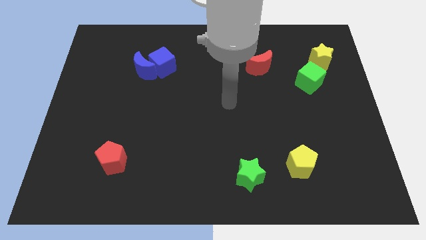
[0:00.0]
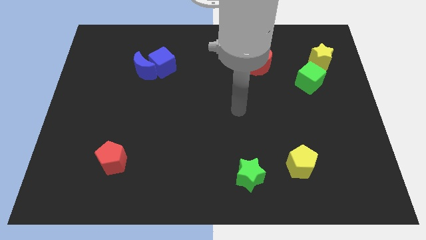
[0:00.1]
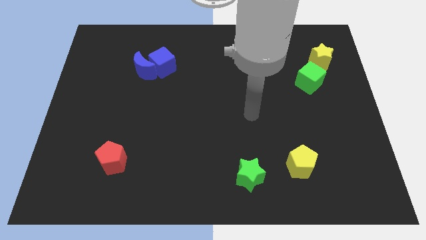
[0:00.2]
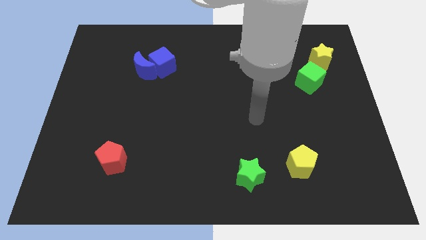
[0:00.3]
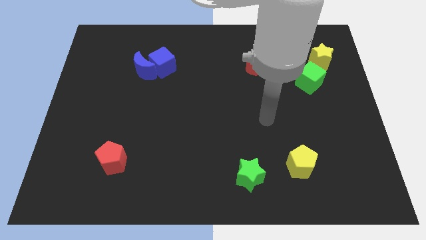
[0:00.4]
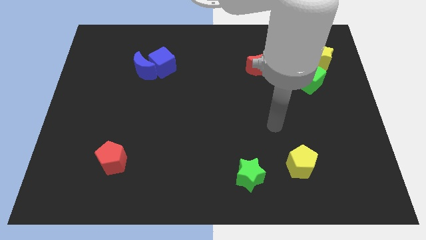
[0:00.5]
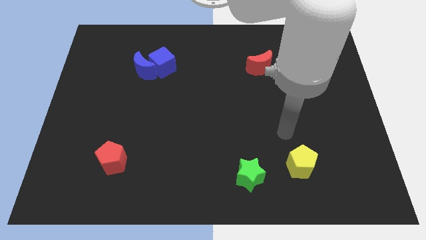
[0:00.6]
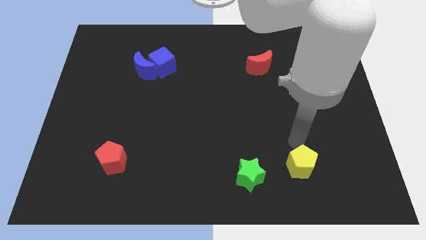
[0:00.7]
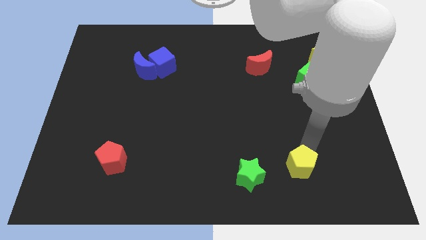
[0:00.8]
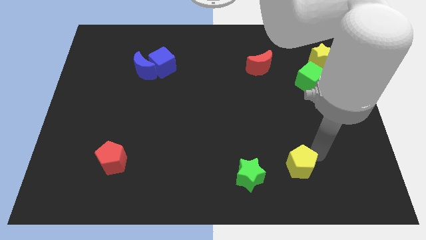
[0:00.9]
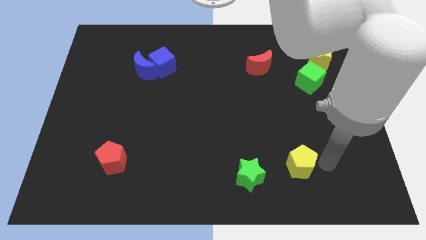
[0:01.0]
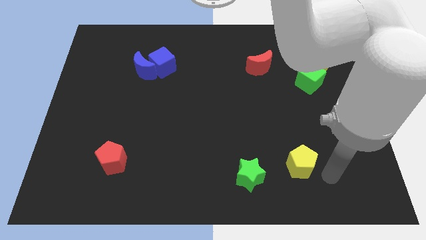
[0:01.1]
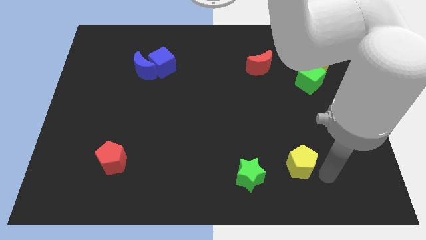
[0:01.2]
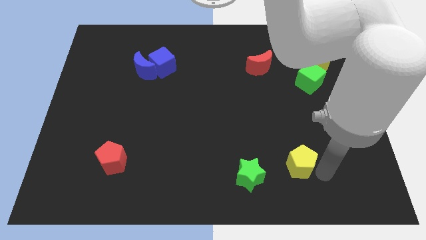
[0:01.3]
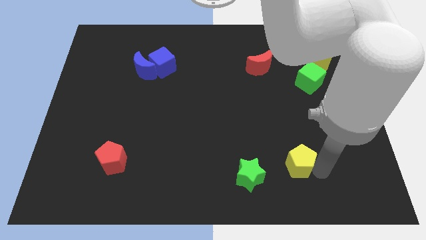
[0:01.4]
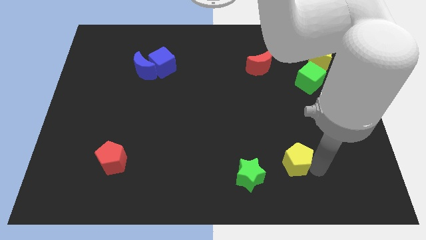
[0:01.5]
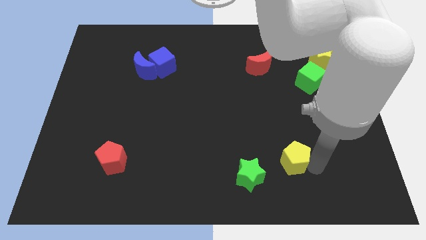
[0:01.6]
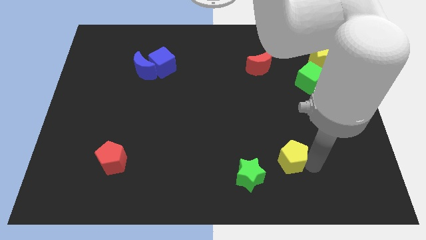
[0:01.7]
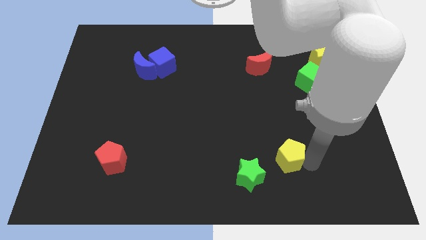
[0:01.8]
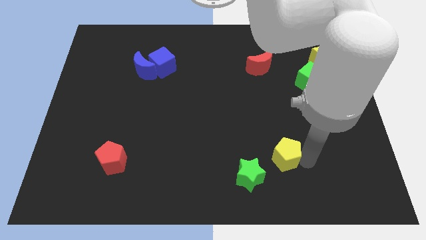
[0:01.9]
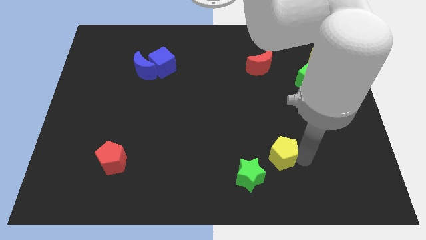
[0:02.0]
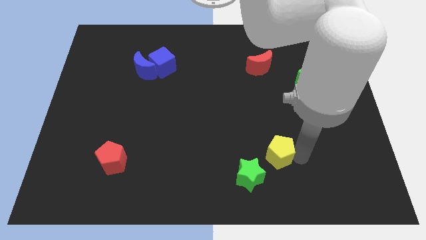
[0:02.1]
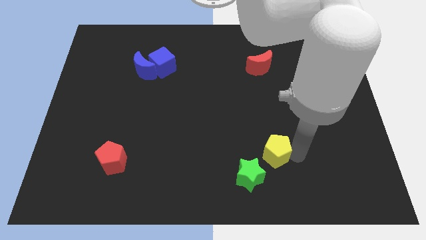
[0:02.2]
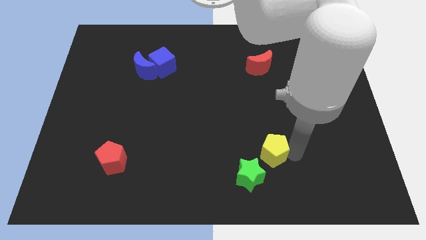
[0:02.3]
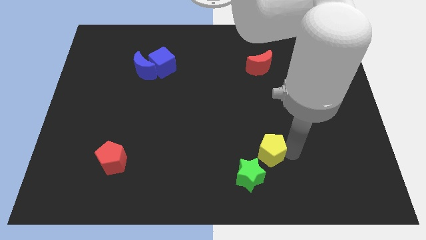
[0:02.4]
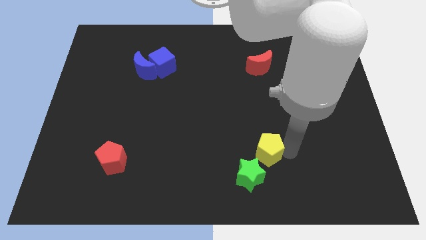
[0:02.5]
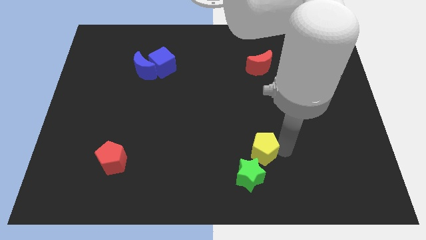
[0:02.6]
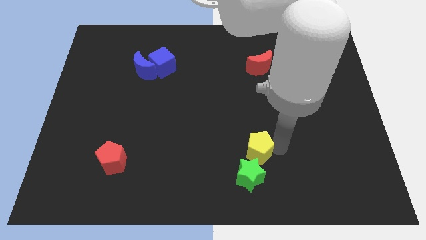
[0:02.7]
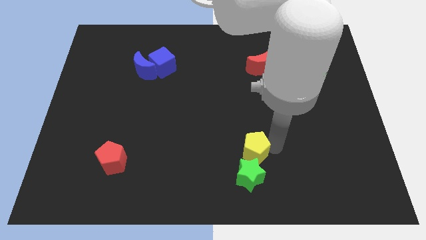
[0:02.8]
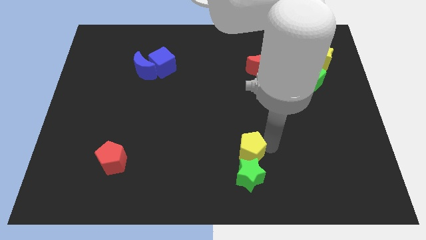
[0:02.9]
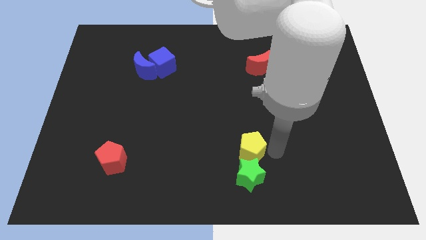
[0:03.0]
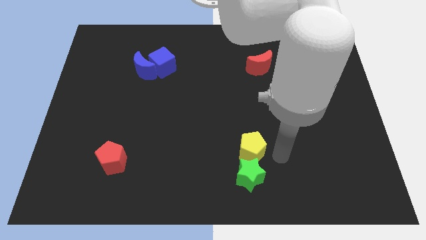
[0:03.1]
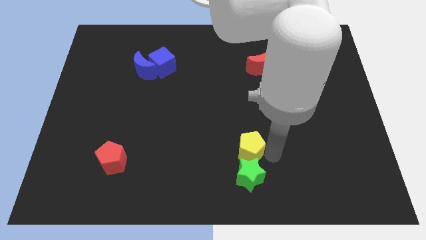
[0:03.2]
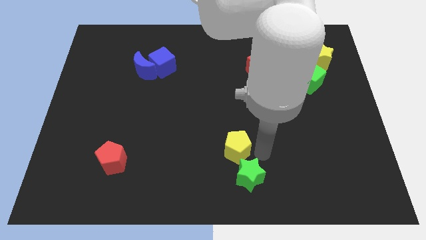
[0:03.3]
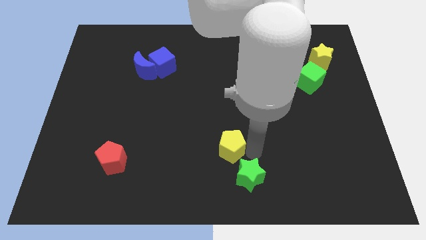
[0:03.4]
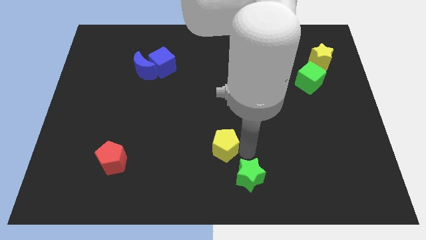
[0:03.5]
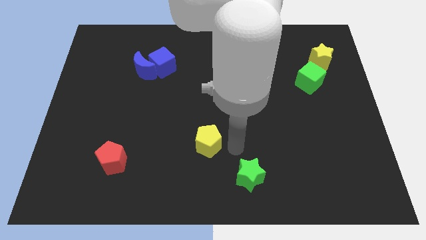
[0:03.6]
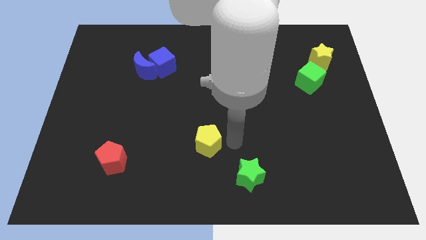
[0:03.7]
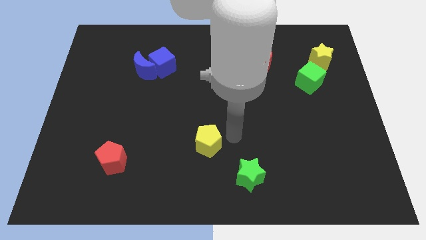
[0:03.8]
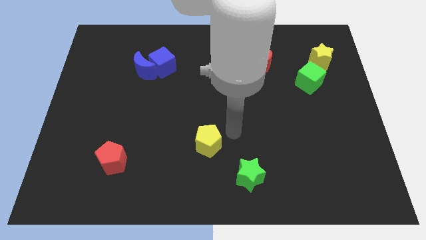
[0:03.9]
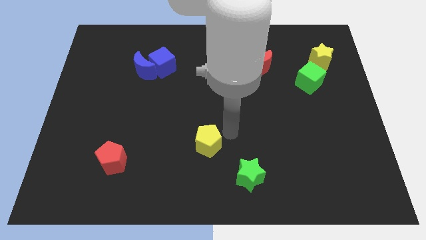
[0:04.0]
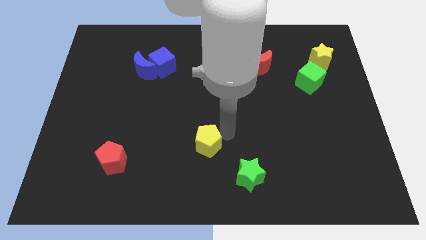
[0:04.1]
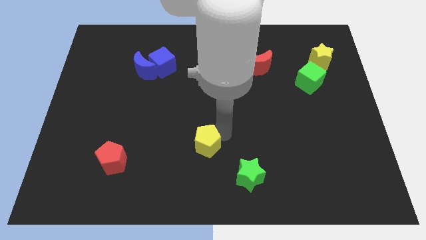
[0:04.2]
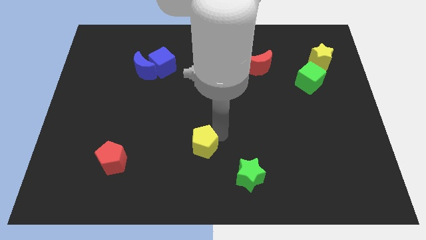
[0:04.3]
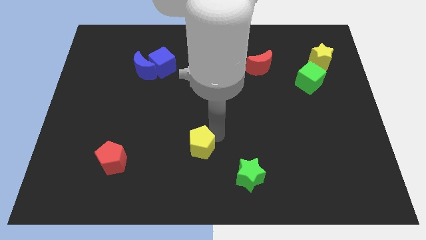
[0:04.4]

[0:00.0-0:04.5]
move the yellow pentagon left

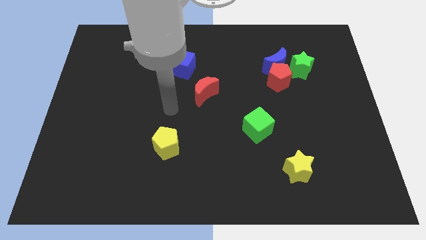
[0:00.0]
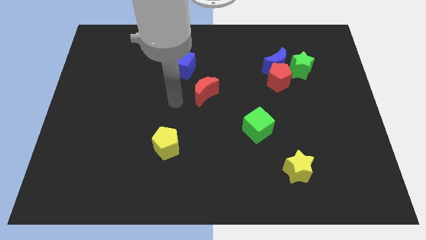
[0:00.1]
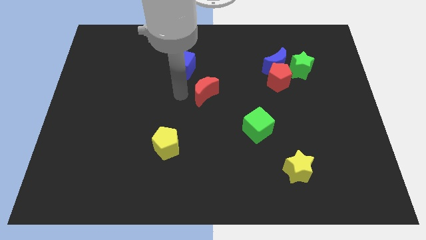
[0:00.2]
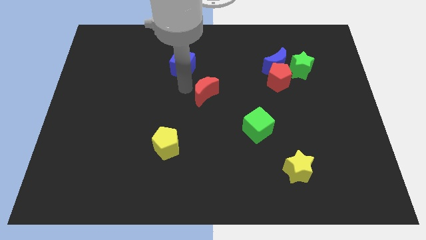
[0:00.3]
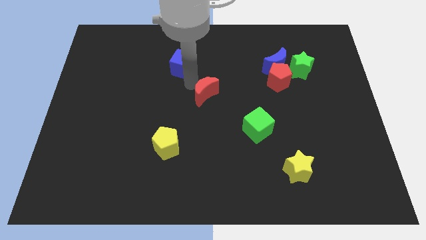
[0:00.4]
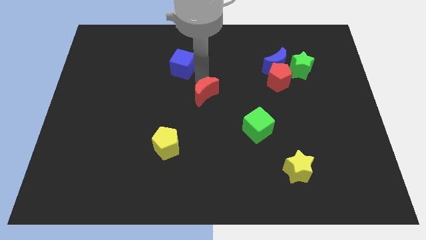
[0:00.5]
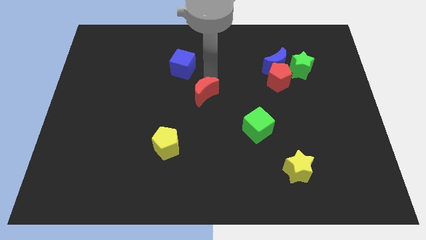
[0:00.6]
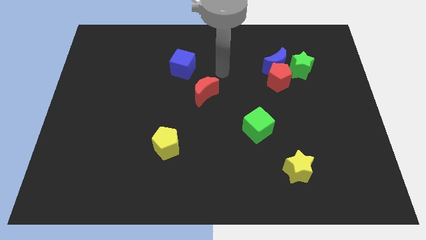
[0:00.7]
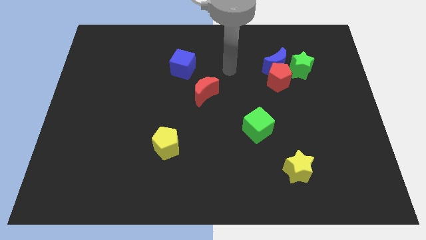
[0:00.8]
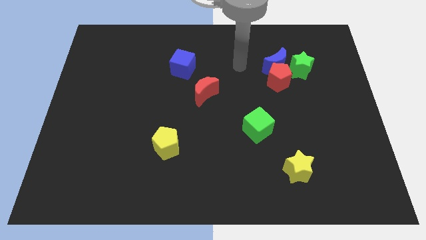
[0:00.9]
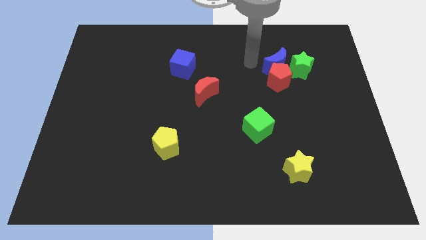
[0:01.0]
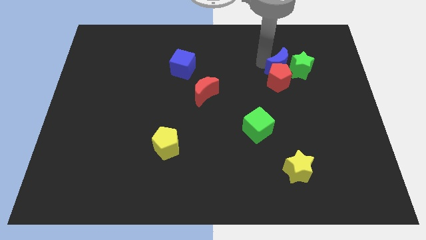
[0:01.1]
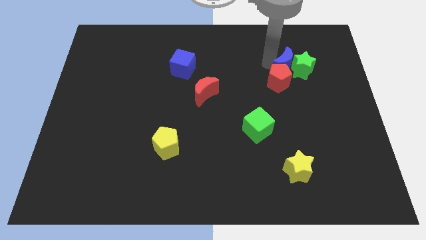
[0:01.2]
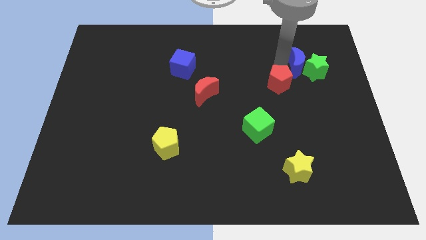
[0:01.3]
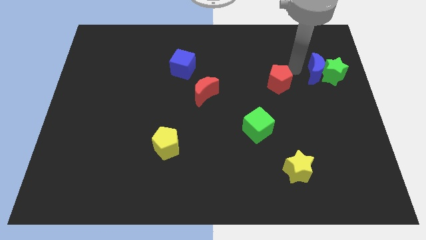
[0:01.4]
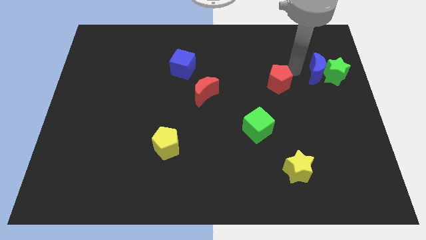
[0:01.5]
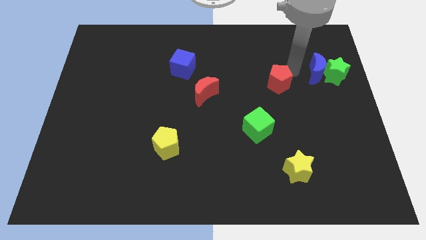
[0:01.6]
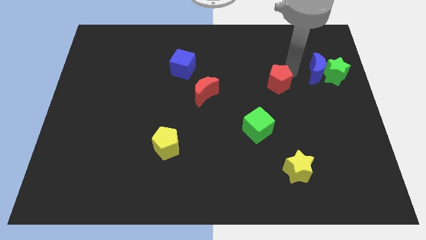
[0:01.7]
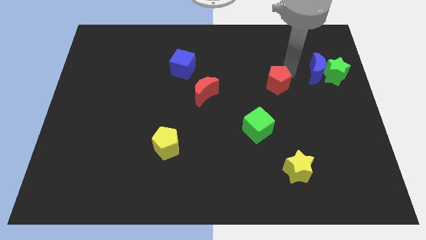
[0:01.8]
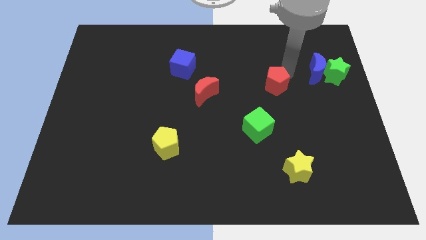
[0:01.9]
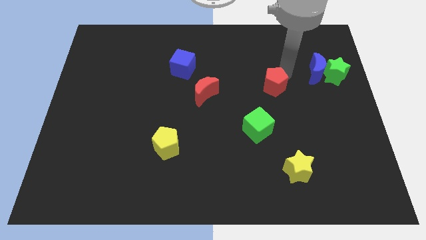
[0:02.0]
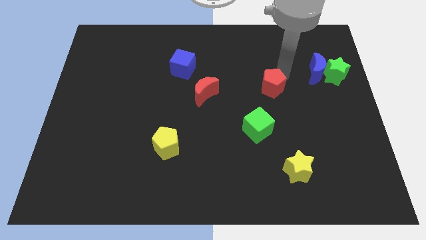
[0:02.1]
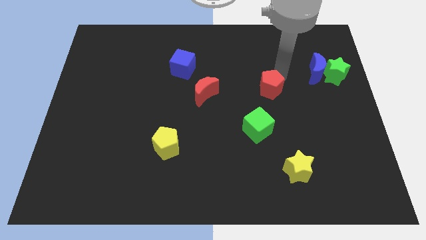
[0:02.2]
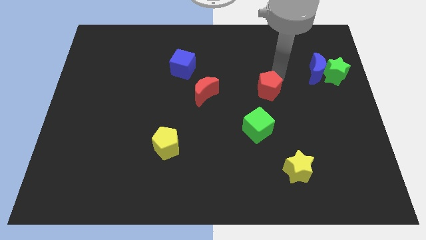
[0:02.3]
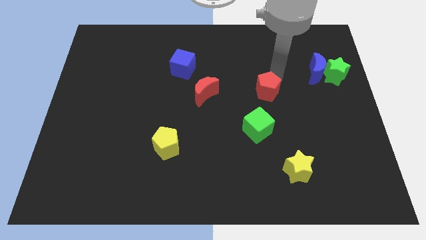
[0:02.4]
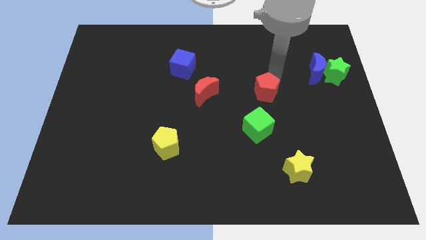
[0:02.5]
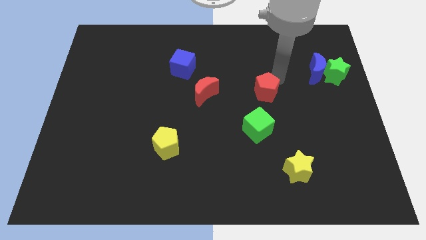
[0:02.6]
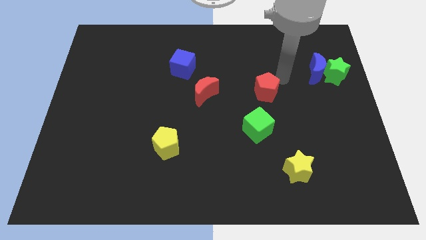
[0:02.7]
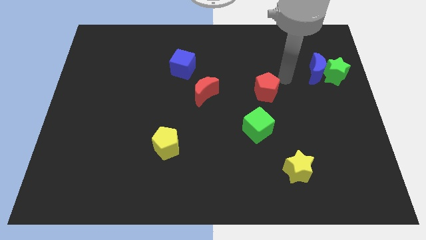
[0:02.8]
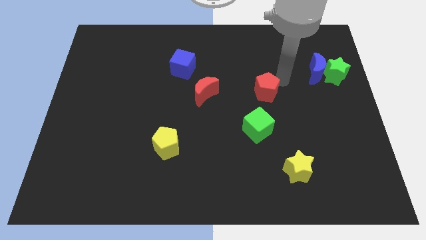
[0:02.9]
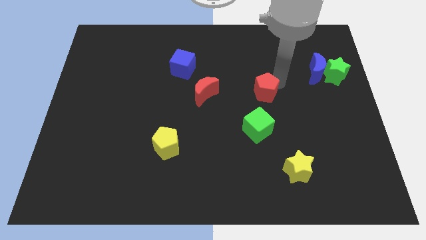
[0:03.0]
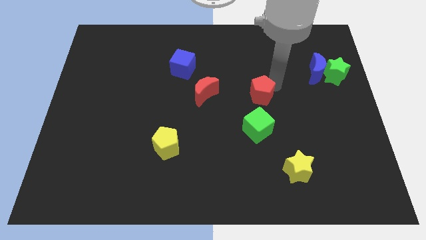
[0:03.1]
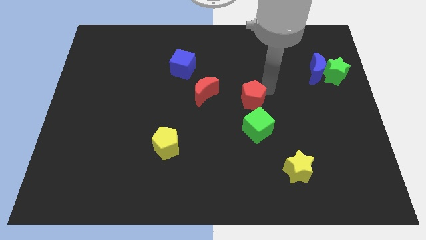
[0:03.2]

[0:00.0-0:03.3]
slightly move the red pentagon downwards and then left
